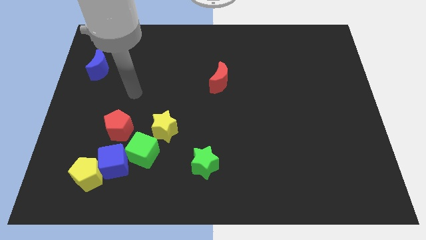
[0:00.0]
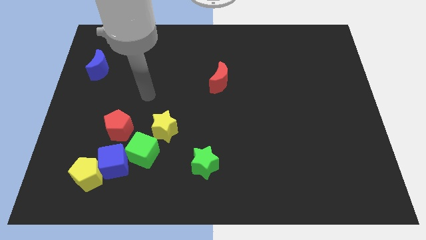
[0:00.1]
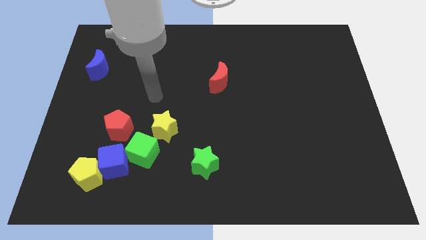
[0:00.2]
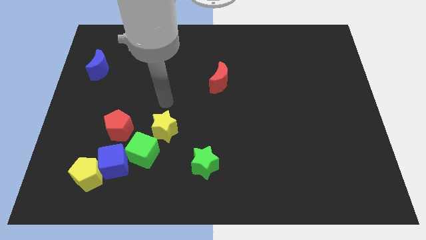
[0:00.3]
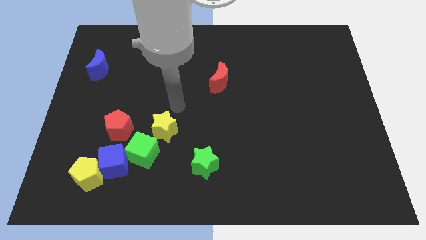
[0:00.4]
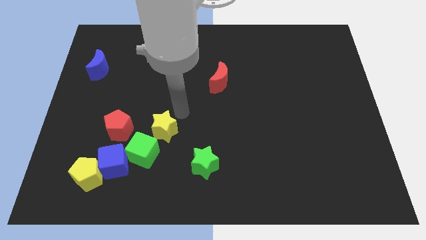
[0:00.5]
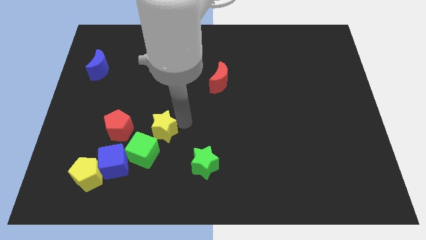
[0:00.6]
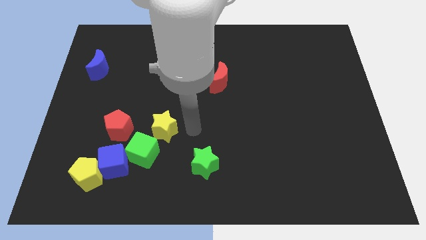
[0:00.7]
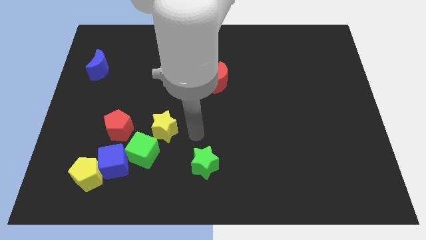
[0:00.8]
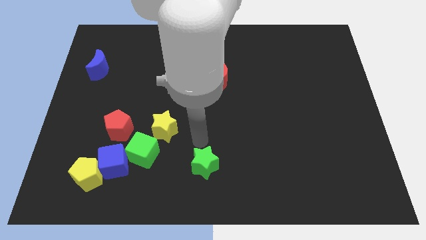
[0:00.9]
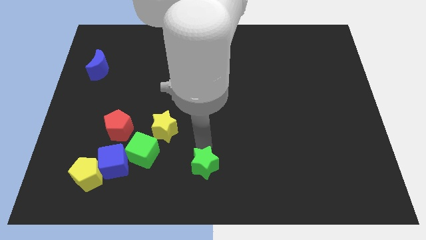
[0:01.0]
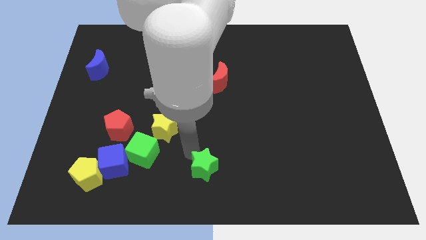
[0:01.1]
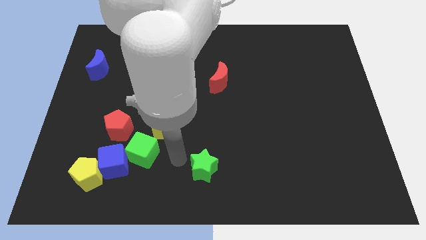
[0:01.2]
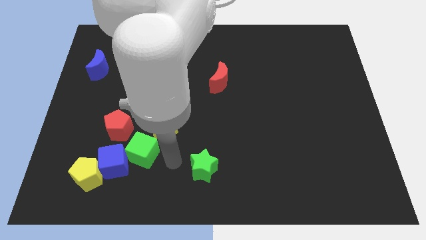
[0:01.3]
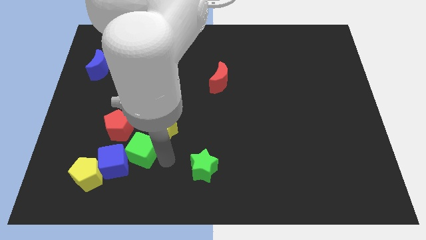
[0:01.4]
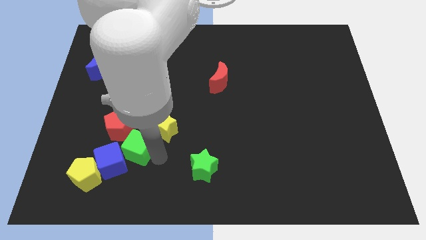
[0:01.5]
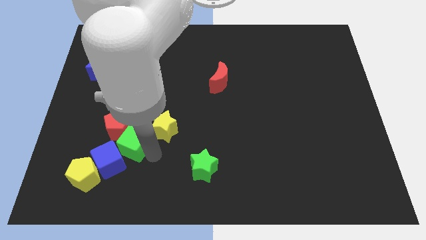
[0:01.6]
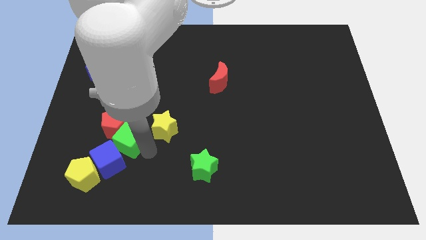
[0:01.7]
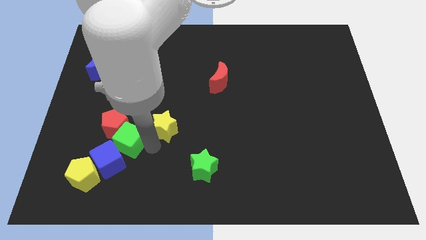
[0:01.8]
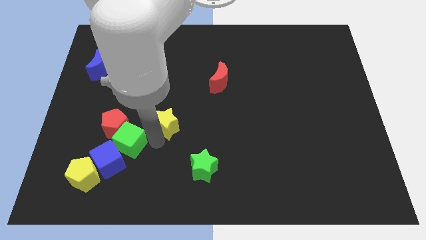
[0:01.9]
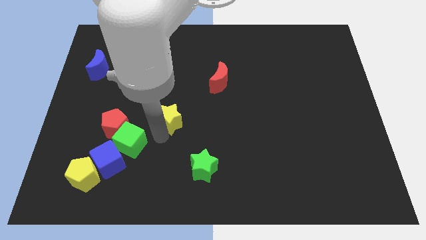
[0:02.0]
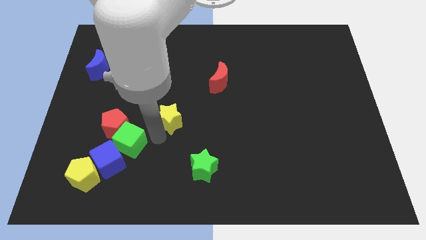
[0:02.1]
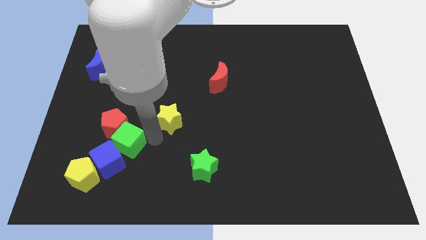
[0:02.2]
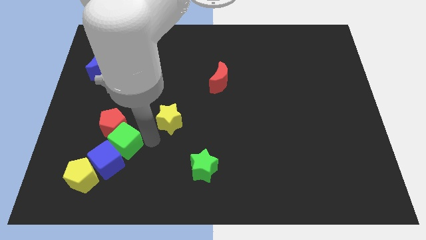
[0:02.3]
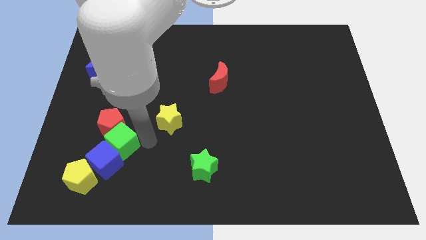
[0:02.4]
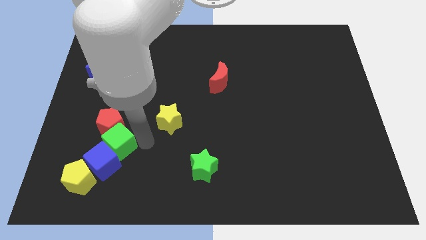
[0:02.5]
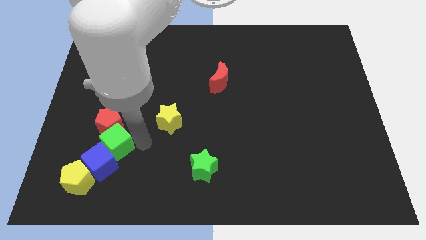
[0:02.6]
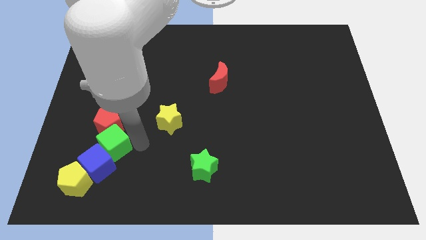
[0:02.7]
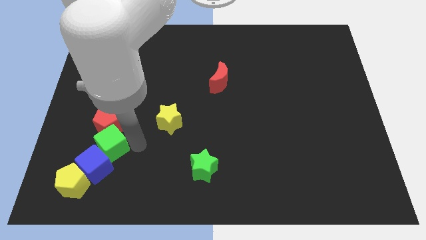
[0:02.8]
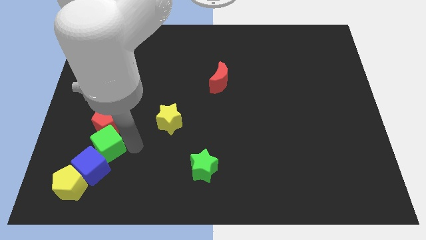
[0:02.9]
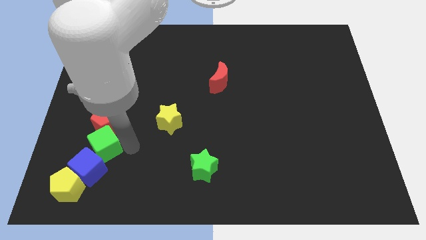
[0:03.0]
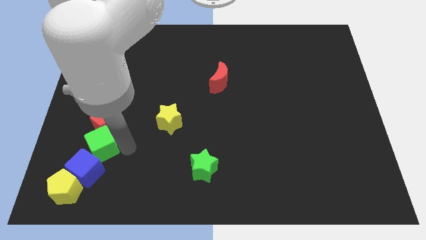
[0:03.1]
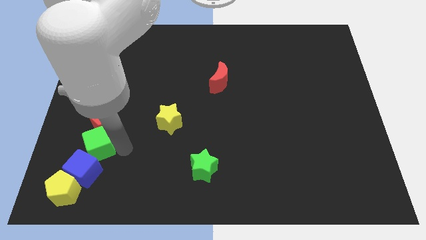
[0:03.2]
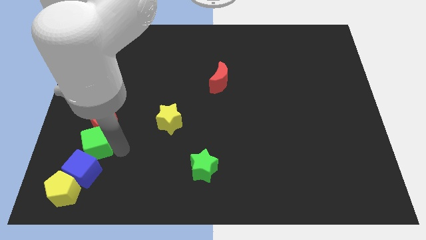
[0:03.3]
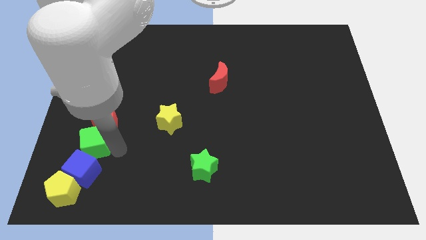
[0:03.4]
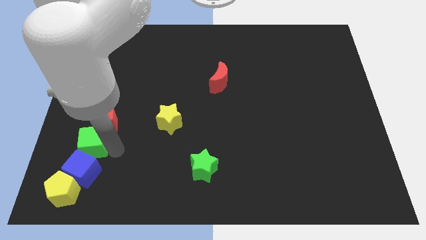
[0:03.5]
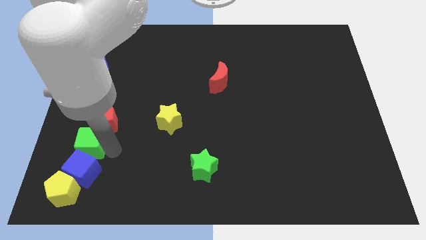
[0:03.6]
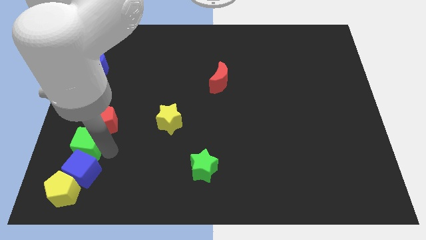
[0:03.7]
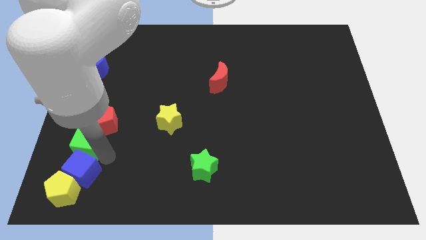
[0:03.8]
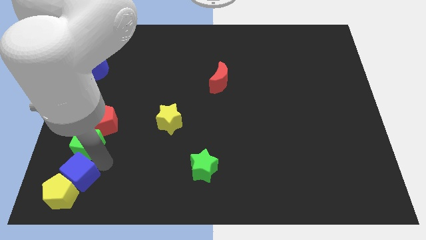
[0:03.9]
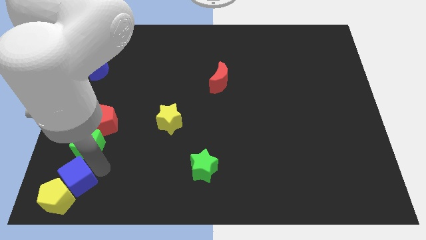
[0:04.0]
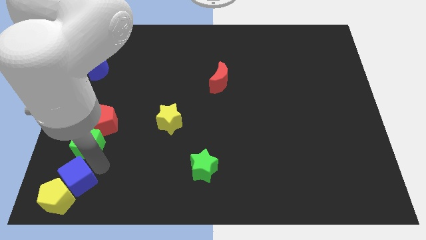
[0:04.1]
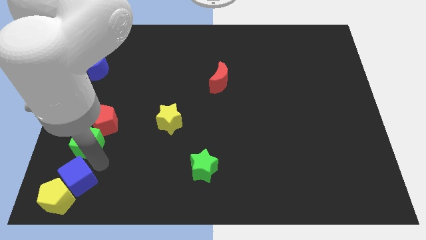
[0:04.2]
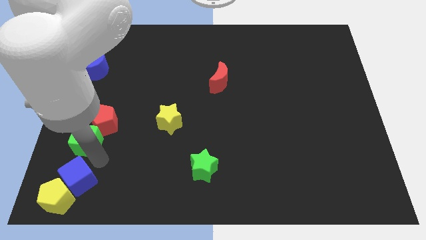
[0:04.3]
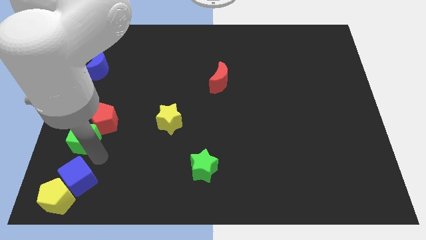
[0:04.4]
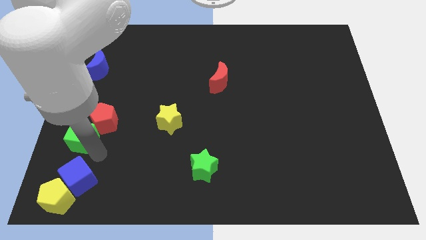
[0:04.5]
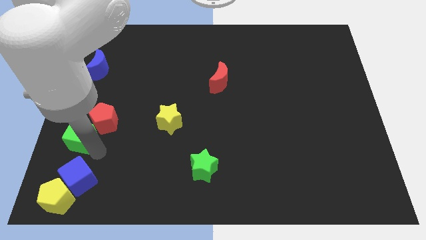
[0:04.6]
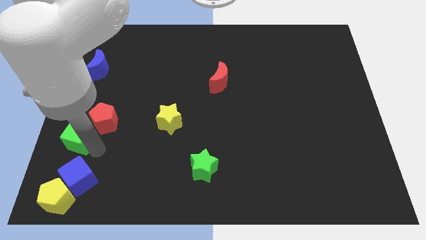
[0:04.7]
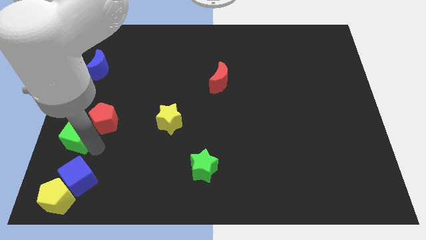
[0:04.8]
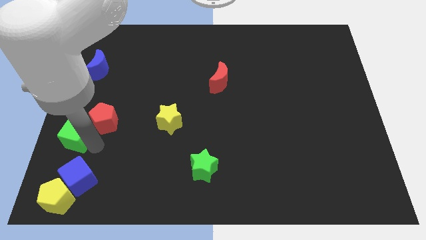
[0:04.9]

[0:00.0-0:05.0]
slide the green cube to the center left
